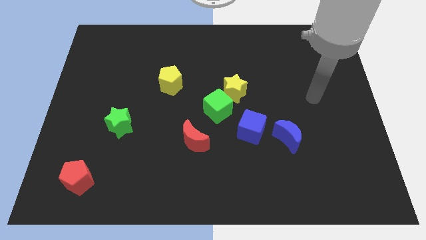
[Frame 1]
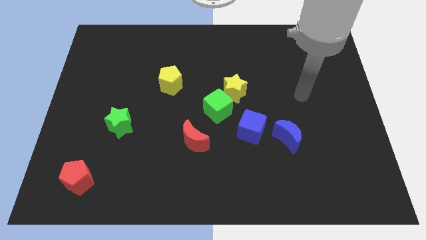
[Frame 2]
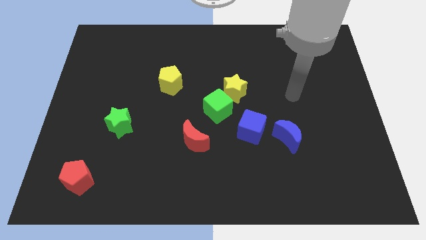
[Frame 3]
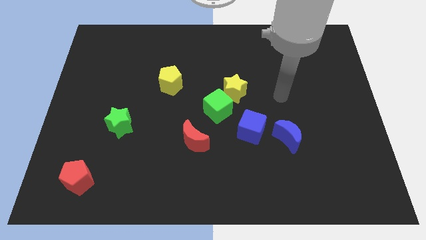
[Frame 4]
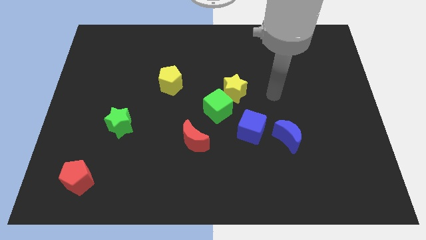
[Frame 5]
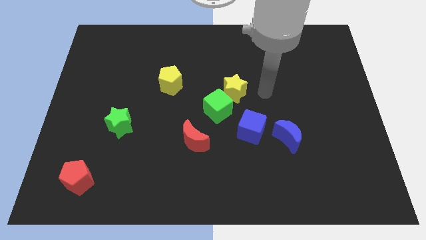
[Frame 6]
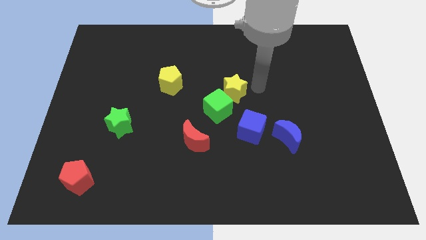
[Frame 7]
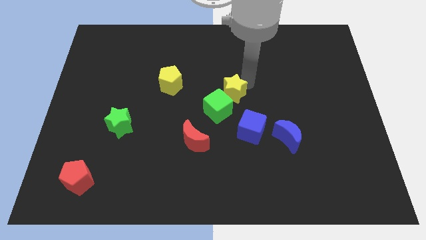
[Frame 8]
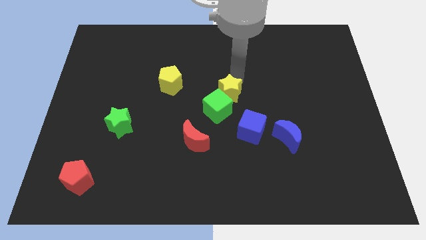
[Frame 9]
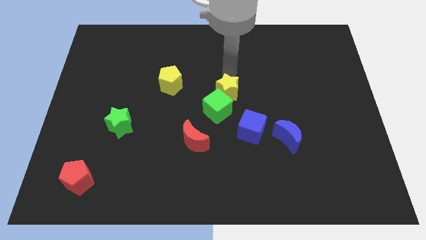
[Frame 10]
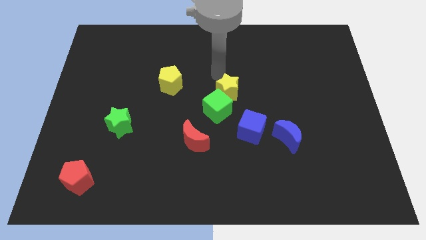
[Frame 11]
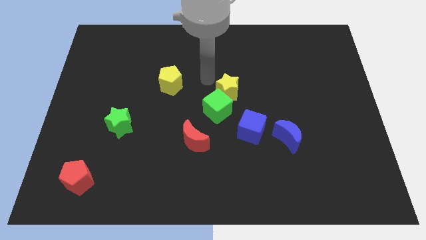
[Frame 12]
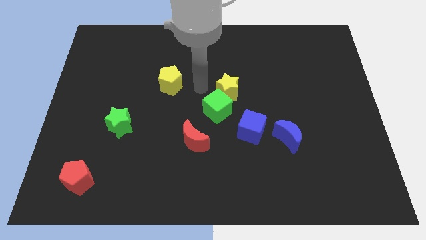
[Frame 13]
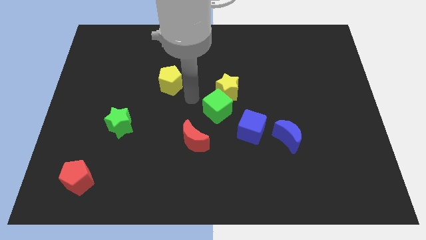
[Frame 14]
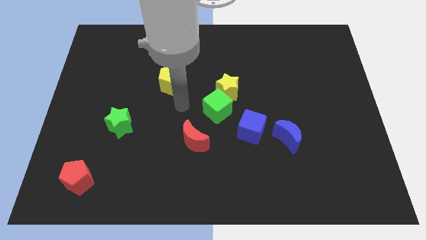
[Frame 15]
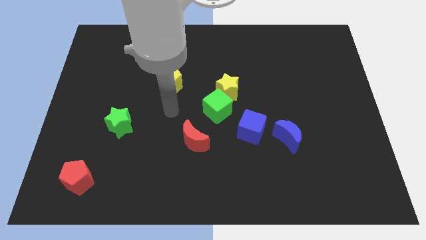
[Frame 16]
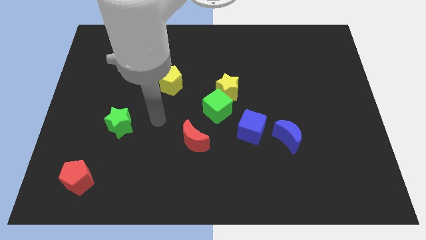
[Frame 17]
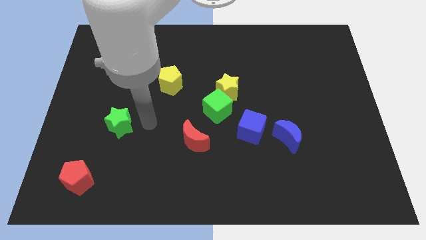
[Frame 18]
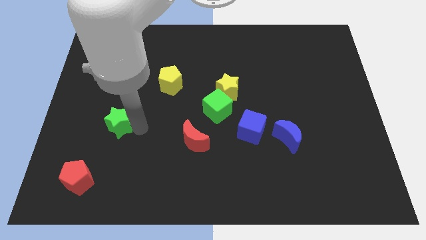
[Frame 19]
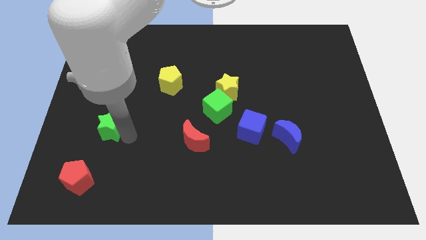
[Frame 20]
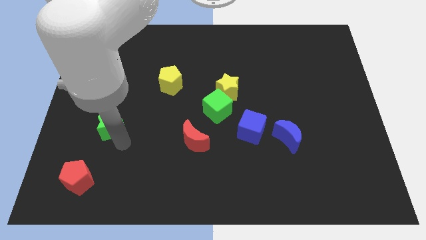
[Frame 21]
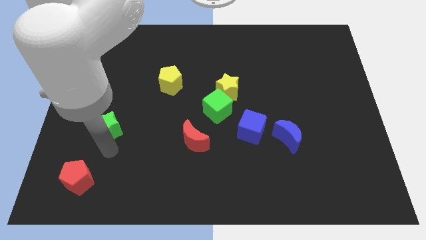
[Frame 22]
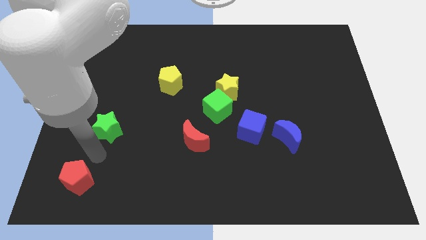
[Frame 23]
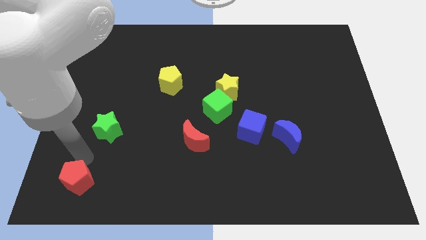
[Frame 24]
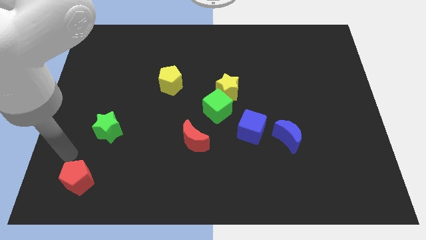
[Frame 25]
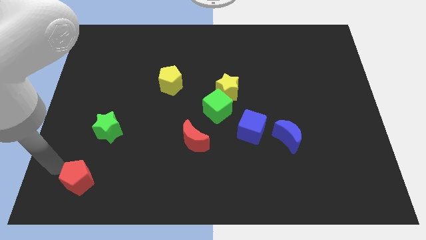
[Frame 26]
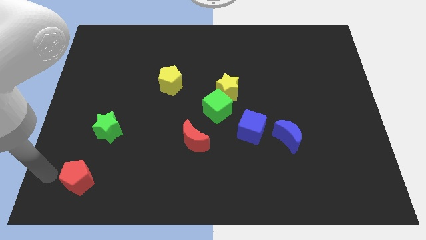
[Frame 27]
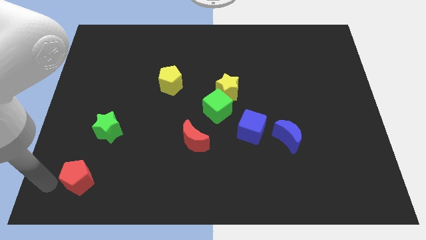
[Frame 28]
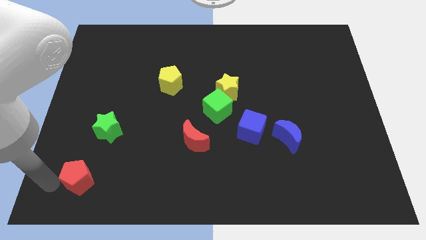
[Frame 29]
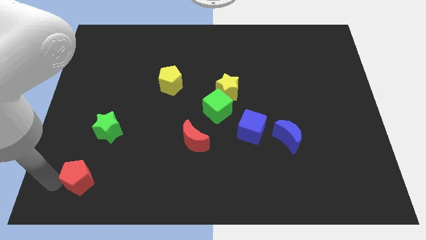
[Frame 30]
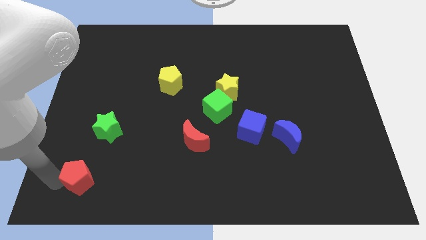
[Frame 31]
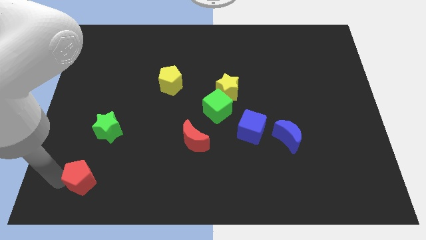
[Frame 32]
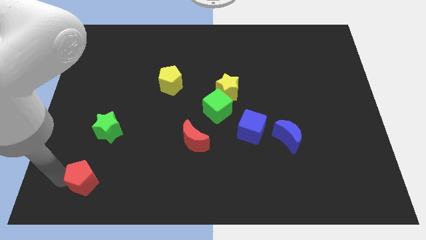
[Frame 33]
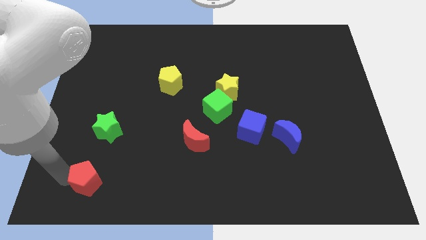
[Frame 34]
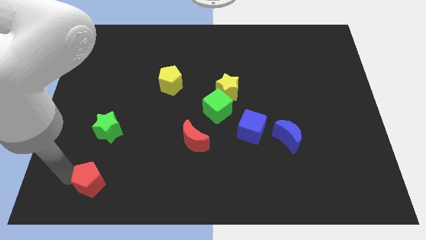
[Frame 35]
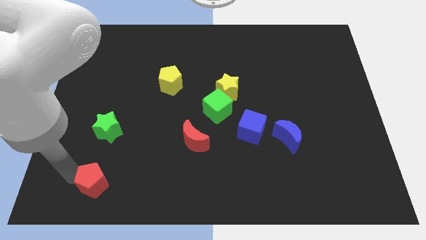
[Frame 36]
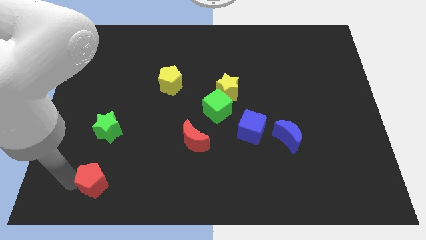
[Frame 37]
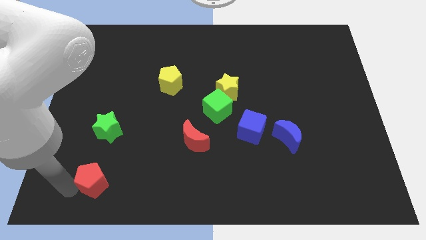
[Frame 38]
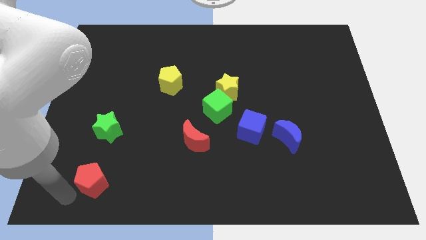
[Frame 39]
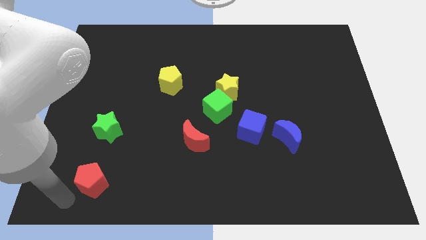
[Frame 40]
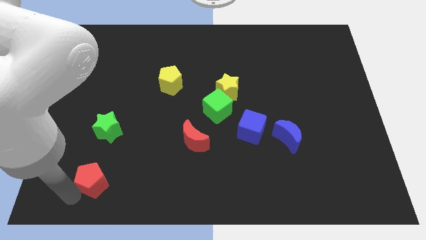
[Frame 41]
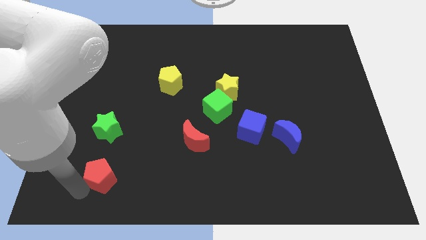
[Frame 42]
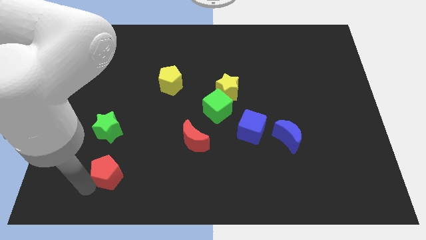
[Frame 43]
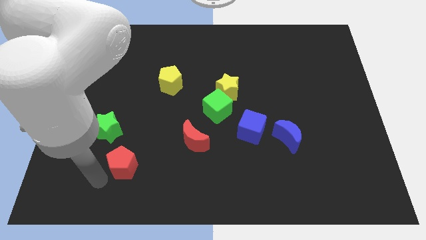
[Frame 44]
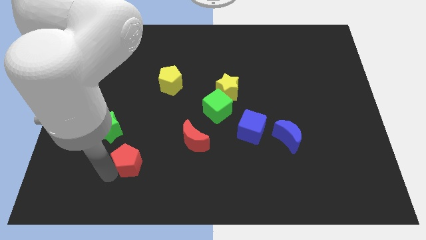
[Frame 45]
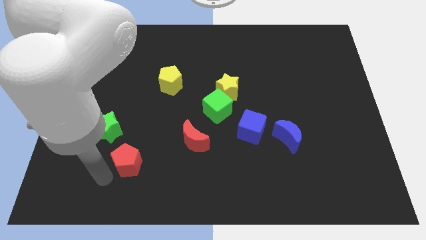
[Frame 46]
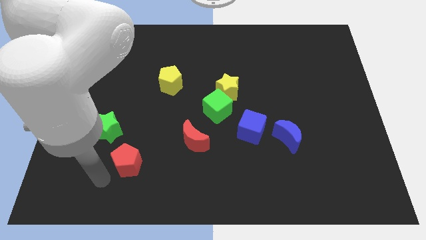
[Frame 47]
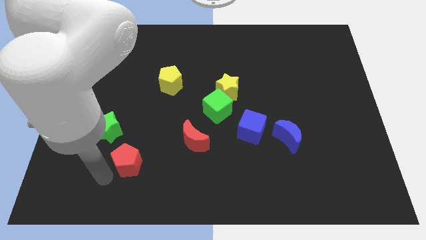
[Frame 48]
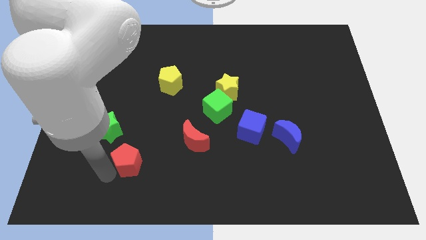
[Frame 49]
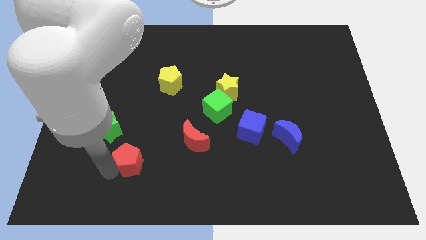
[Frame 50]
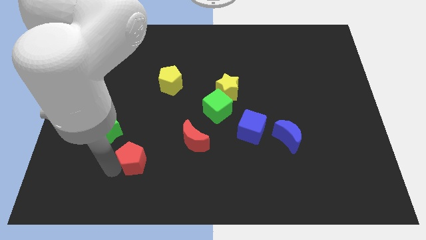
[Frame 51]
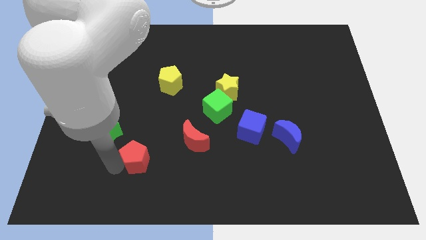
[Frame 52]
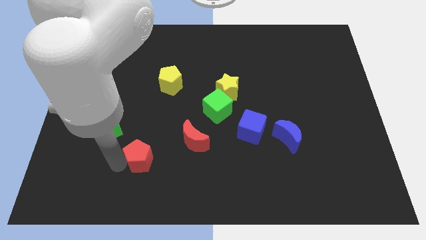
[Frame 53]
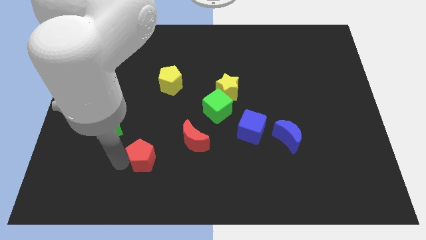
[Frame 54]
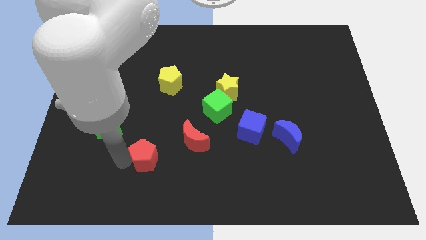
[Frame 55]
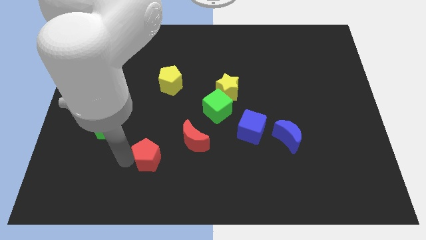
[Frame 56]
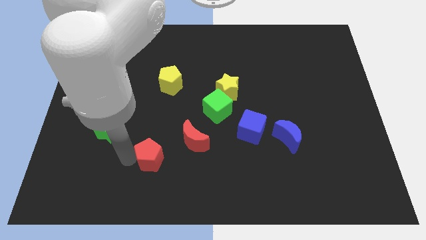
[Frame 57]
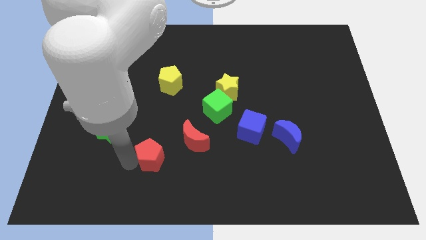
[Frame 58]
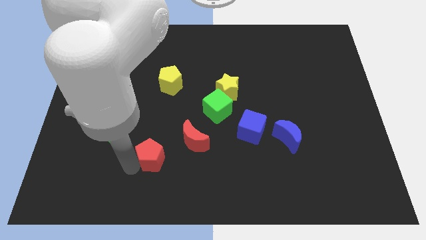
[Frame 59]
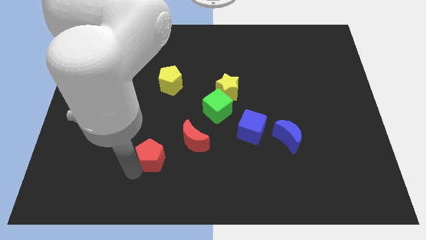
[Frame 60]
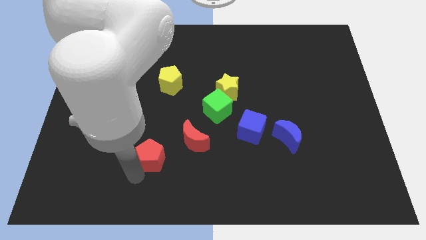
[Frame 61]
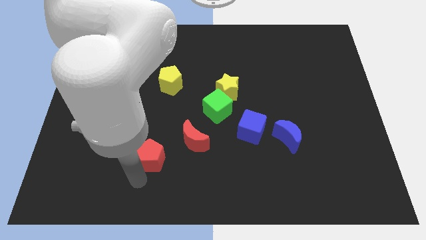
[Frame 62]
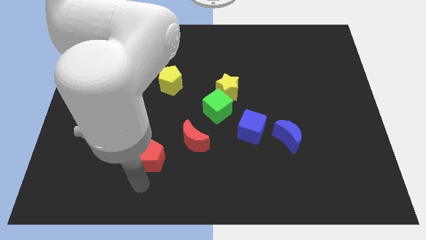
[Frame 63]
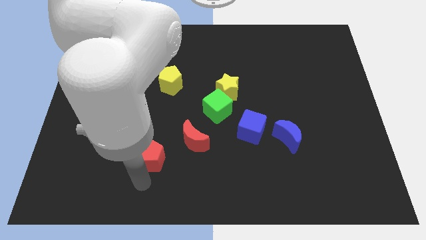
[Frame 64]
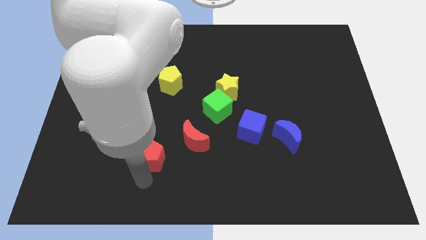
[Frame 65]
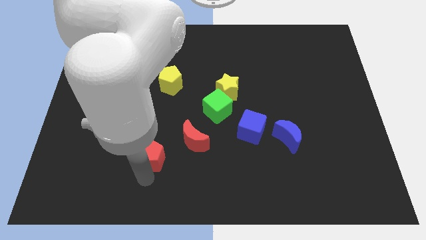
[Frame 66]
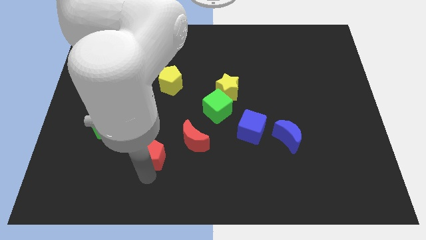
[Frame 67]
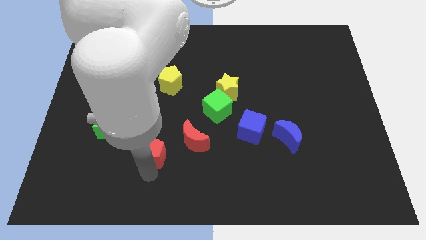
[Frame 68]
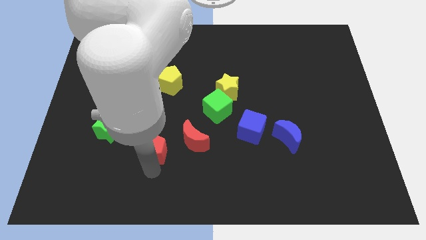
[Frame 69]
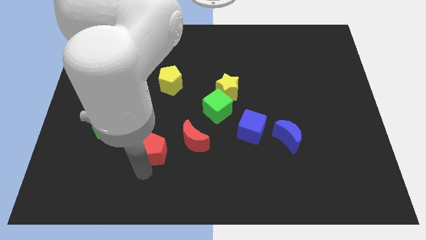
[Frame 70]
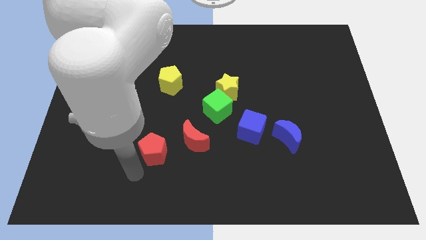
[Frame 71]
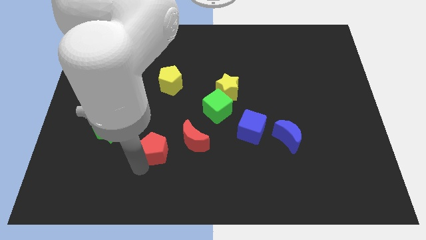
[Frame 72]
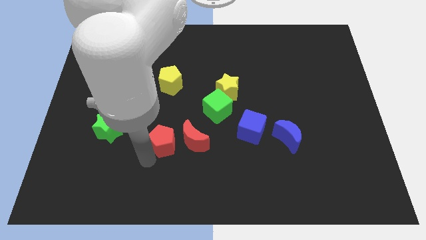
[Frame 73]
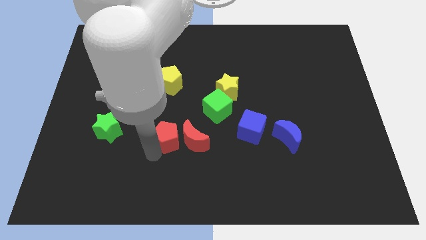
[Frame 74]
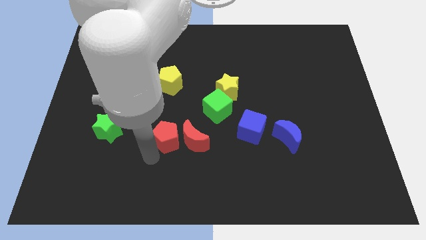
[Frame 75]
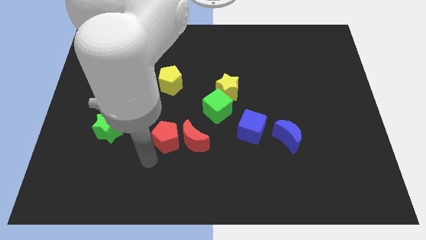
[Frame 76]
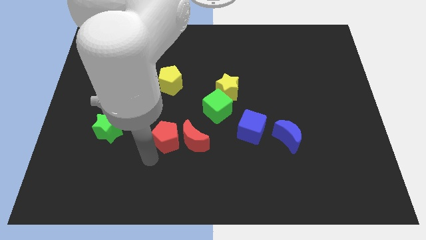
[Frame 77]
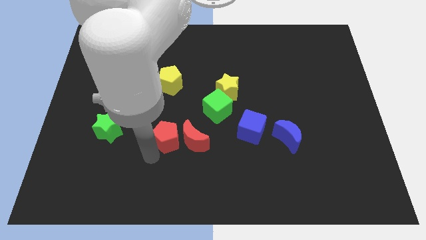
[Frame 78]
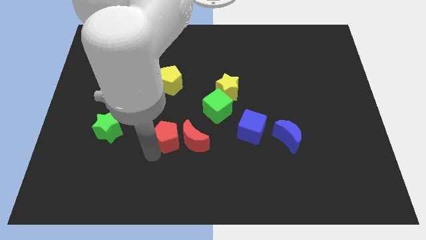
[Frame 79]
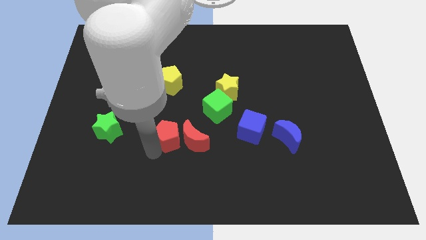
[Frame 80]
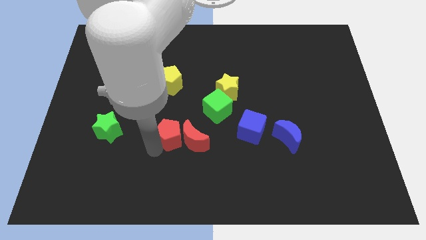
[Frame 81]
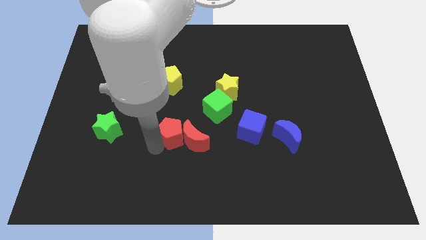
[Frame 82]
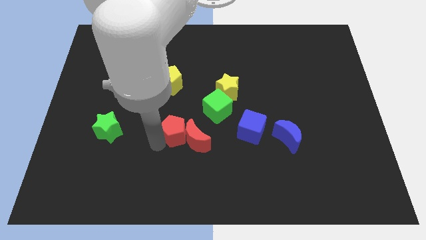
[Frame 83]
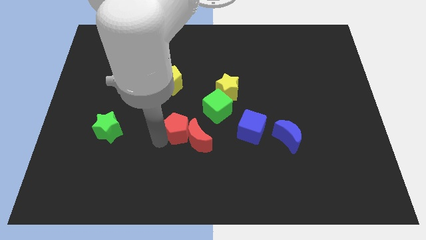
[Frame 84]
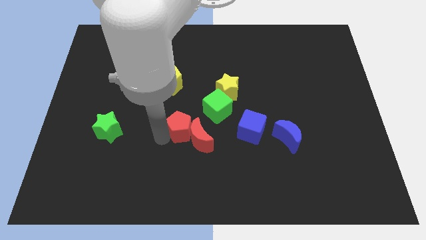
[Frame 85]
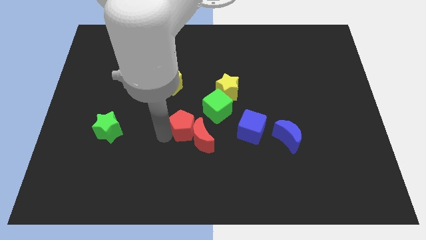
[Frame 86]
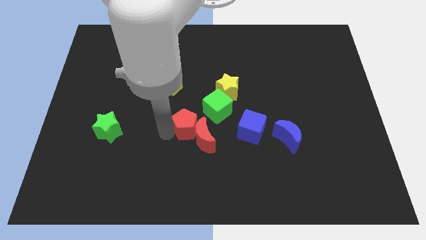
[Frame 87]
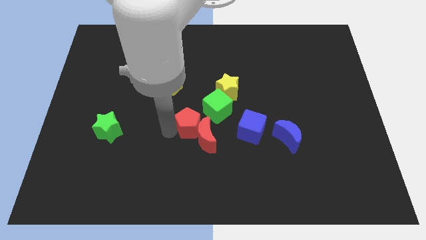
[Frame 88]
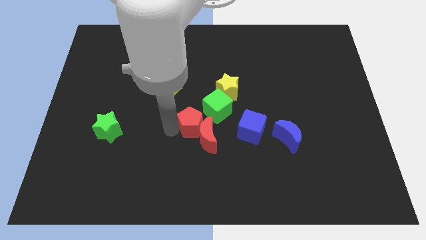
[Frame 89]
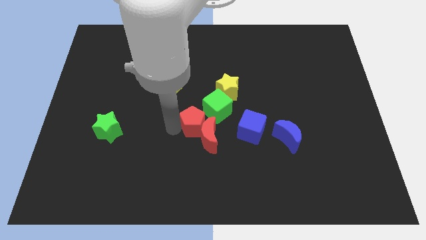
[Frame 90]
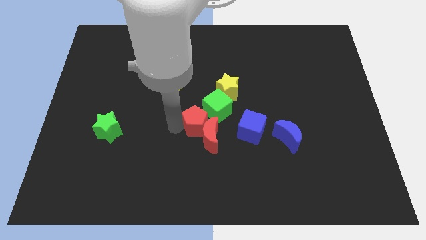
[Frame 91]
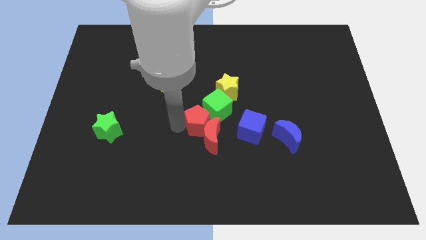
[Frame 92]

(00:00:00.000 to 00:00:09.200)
move the red pentagon to the green cube
